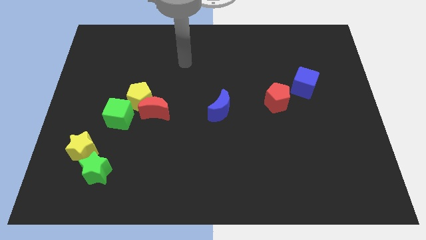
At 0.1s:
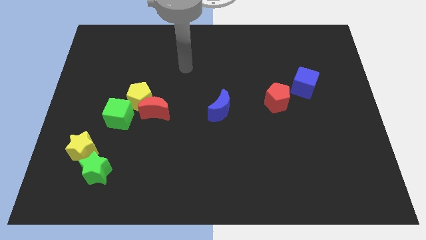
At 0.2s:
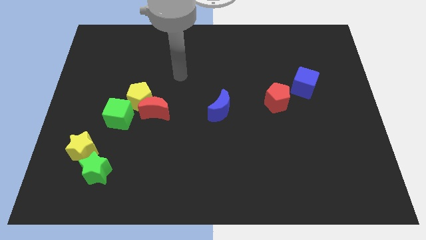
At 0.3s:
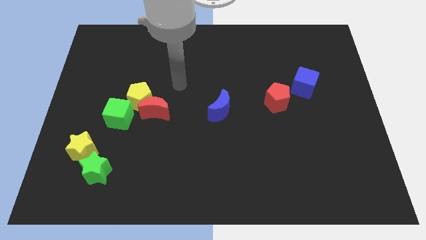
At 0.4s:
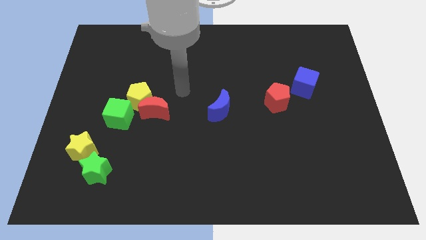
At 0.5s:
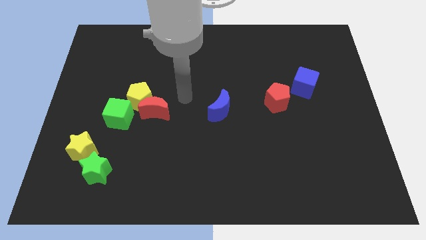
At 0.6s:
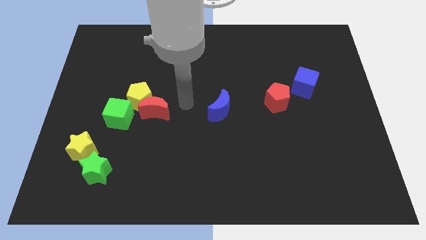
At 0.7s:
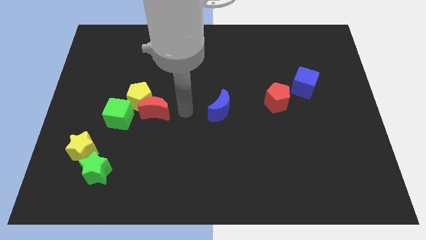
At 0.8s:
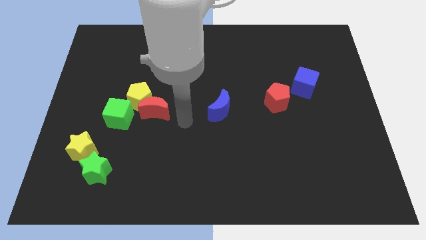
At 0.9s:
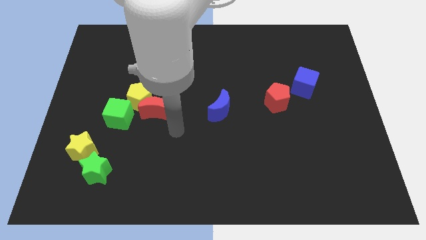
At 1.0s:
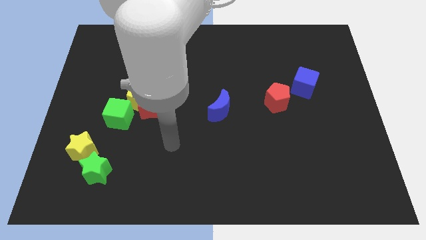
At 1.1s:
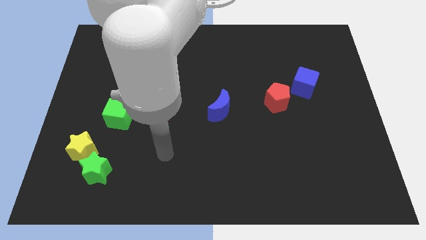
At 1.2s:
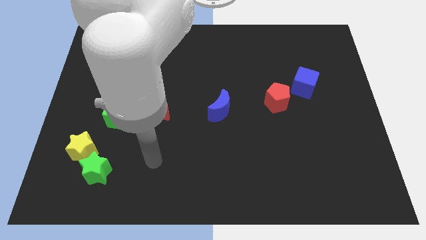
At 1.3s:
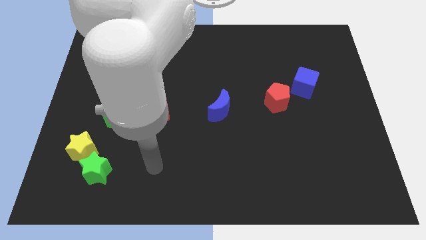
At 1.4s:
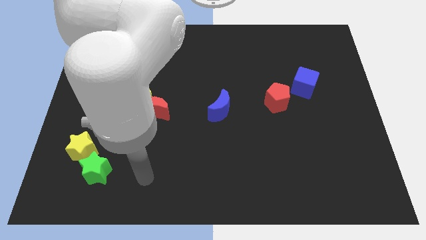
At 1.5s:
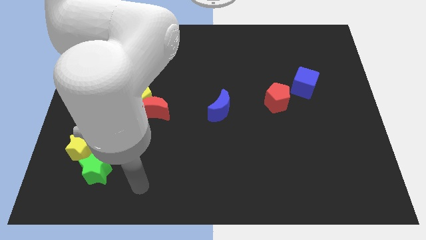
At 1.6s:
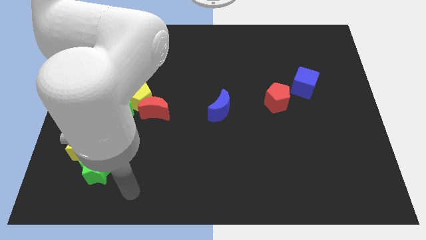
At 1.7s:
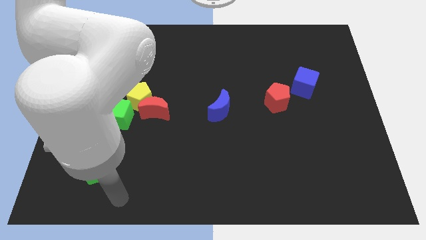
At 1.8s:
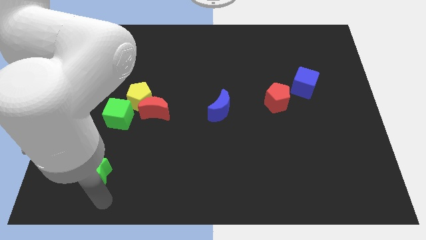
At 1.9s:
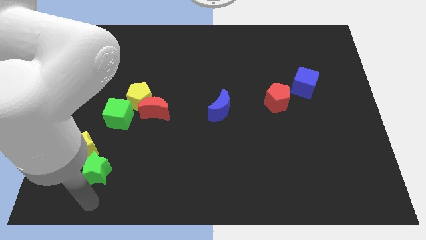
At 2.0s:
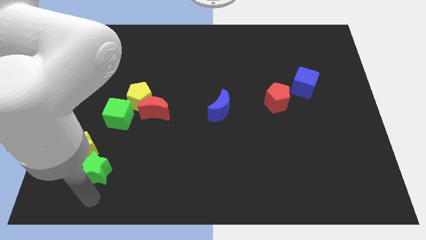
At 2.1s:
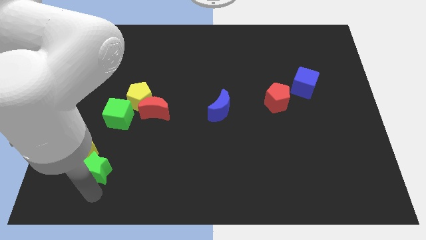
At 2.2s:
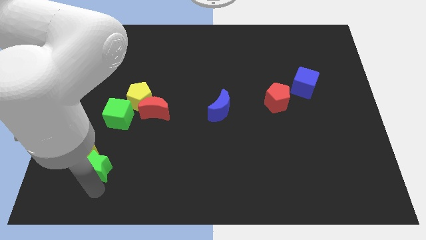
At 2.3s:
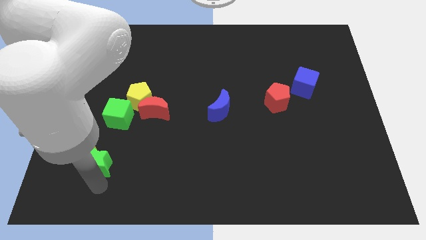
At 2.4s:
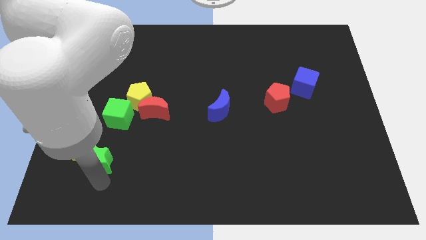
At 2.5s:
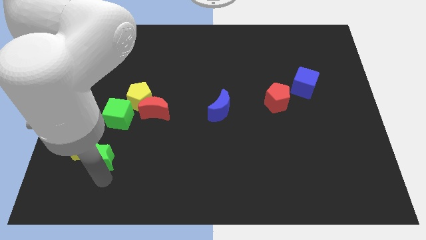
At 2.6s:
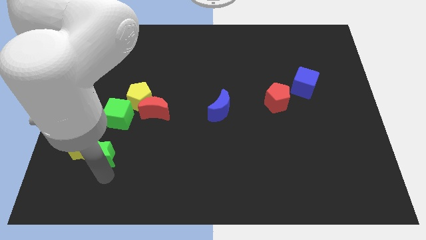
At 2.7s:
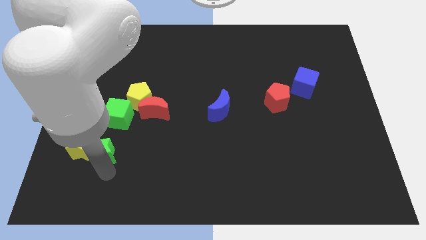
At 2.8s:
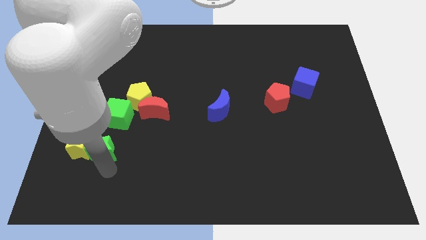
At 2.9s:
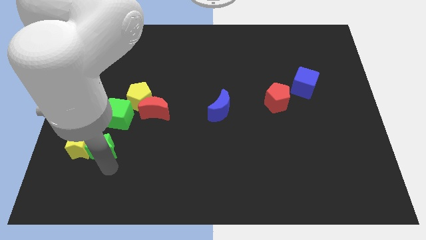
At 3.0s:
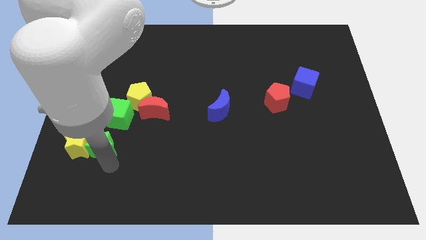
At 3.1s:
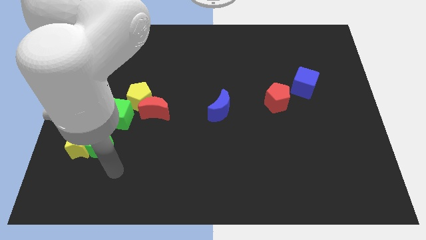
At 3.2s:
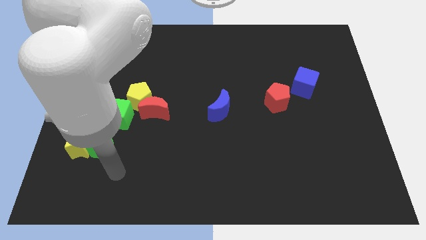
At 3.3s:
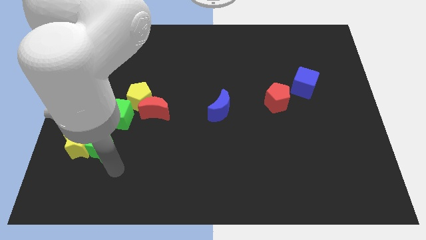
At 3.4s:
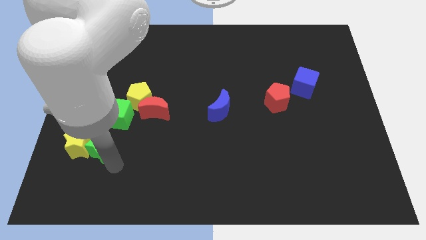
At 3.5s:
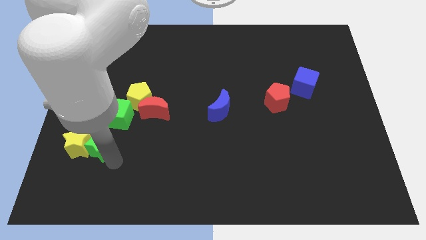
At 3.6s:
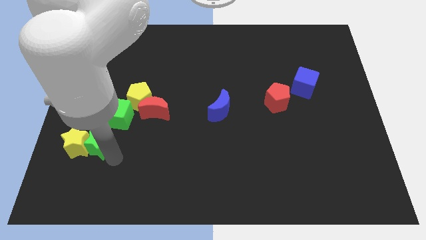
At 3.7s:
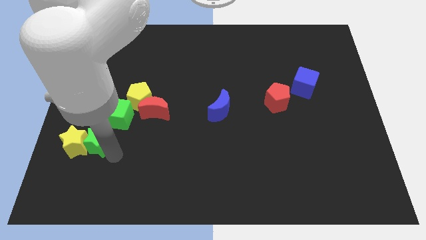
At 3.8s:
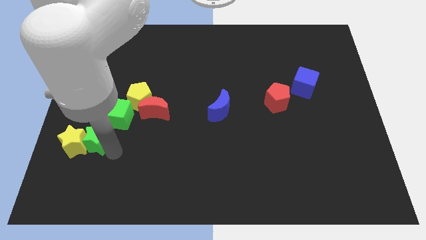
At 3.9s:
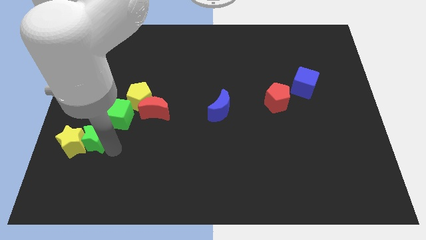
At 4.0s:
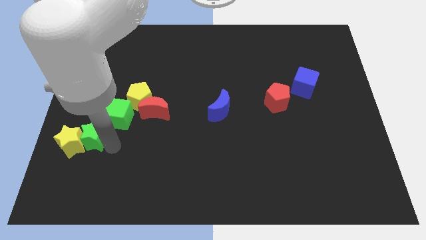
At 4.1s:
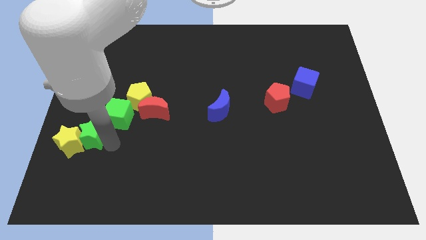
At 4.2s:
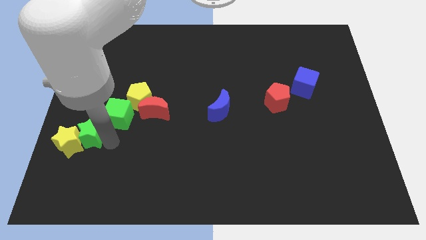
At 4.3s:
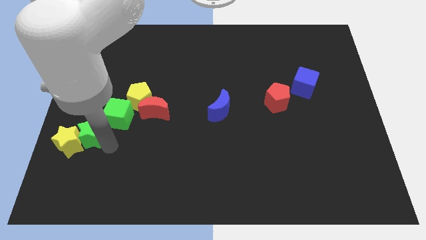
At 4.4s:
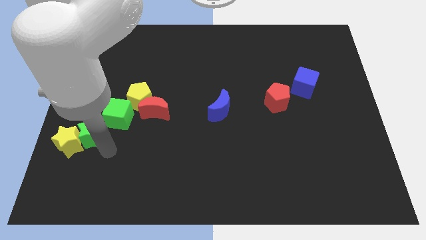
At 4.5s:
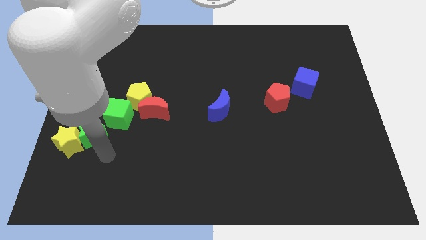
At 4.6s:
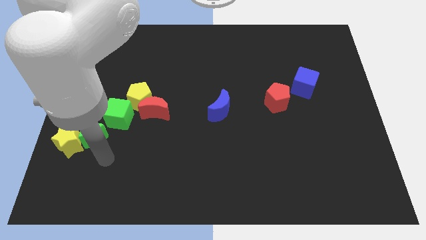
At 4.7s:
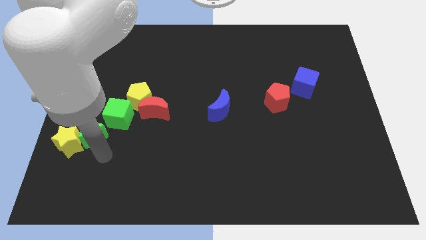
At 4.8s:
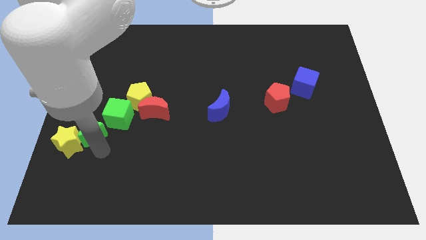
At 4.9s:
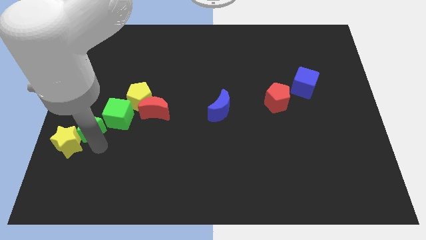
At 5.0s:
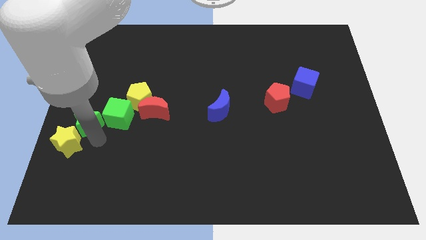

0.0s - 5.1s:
move the green star to the center left

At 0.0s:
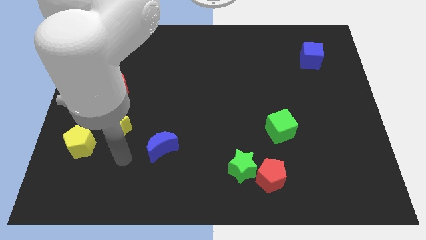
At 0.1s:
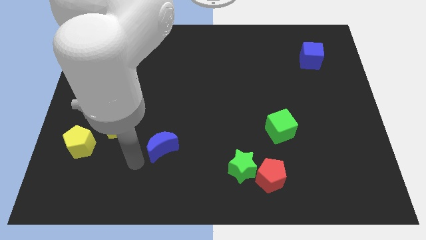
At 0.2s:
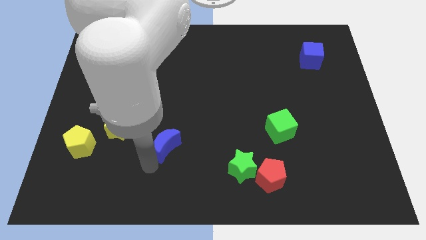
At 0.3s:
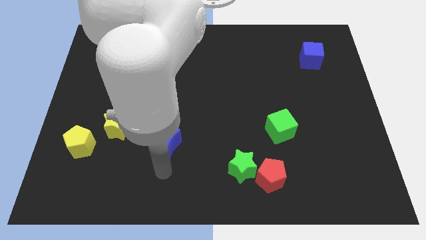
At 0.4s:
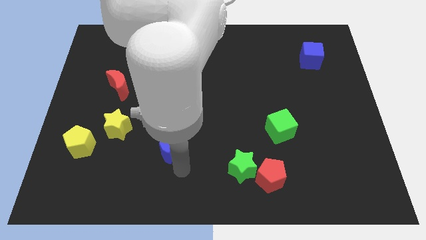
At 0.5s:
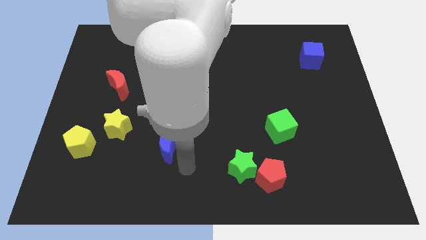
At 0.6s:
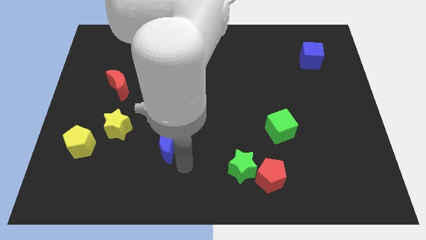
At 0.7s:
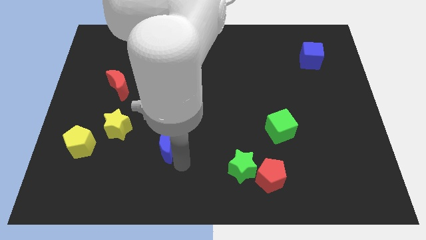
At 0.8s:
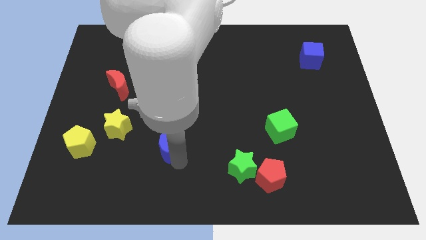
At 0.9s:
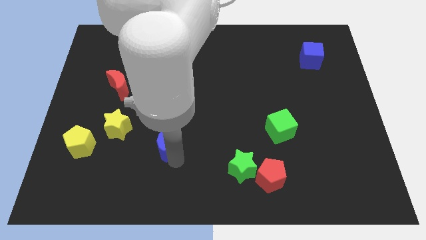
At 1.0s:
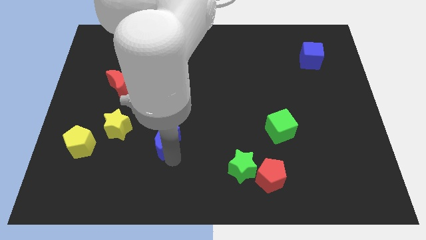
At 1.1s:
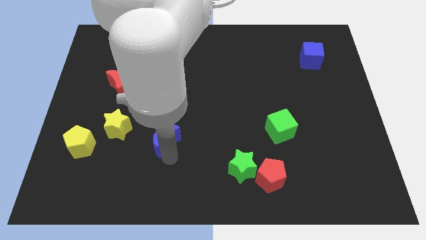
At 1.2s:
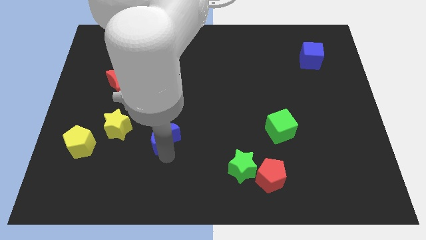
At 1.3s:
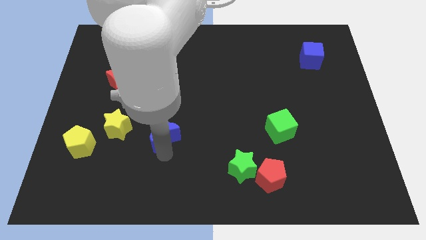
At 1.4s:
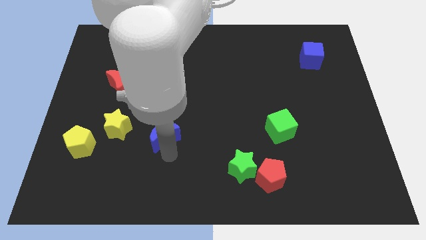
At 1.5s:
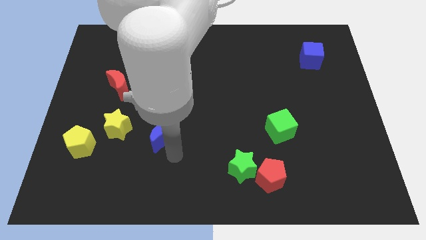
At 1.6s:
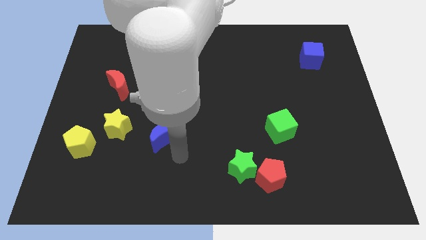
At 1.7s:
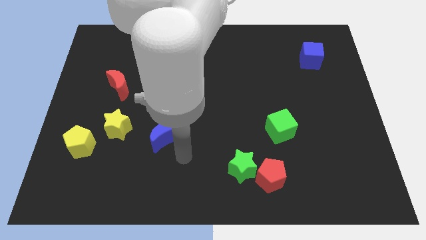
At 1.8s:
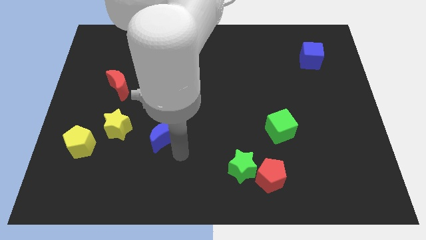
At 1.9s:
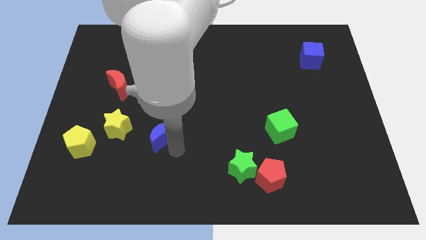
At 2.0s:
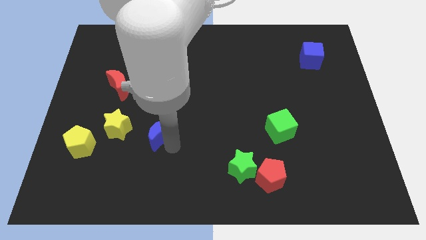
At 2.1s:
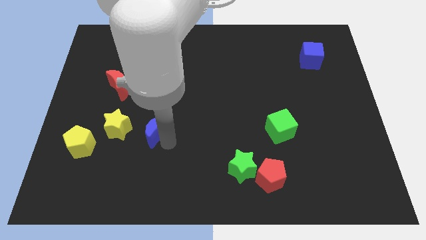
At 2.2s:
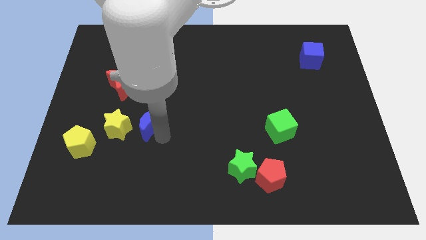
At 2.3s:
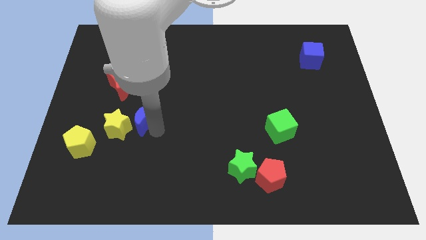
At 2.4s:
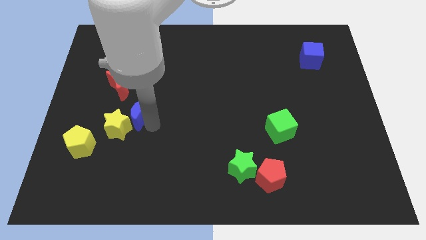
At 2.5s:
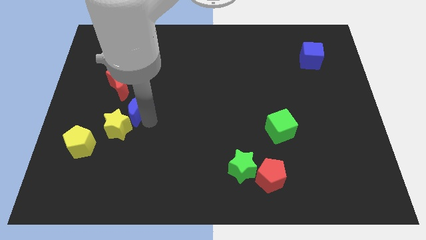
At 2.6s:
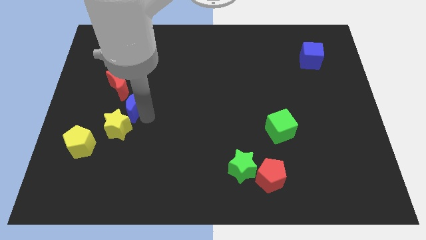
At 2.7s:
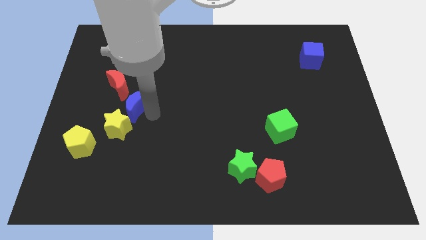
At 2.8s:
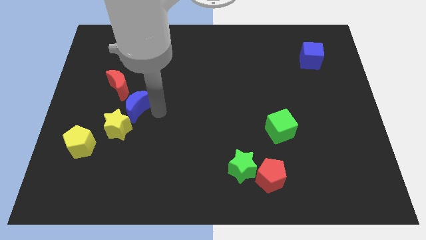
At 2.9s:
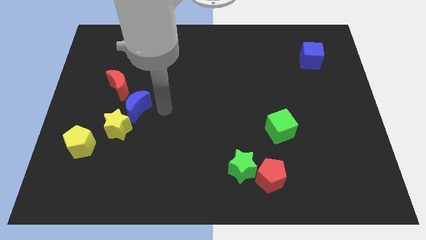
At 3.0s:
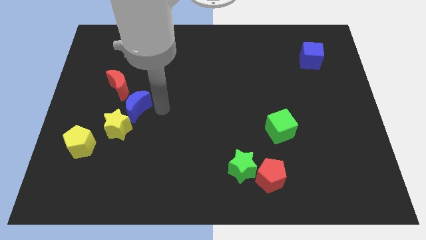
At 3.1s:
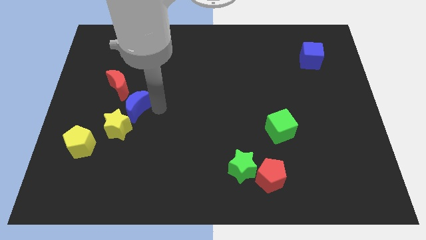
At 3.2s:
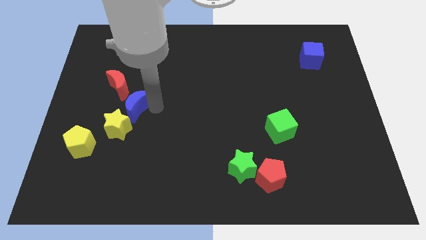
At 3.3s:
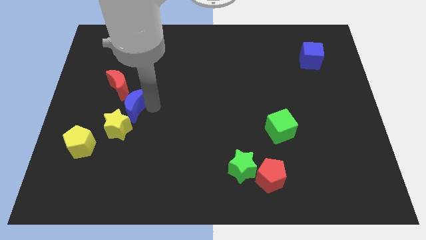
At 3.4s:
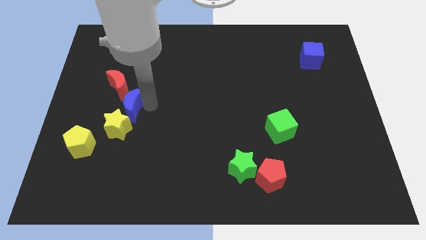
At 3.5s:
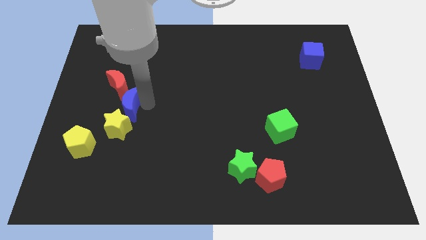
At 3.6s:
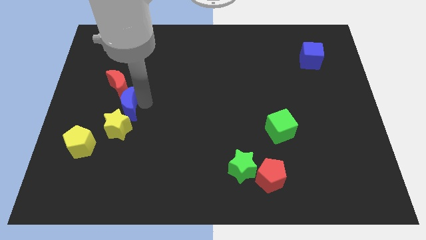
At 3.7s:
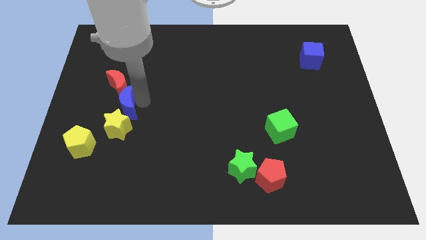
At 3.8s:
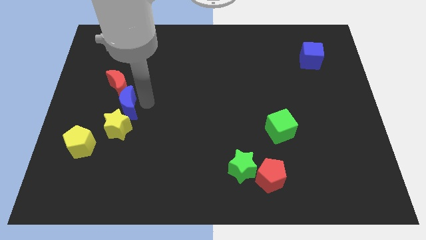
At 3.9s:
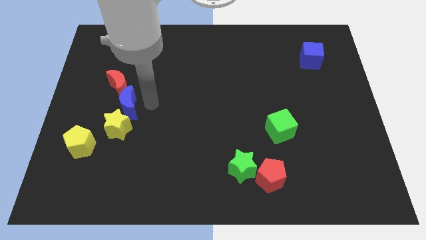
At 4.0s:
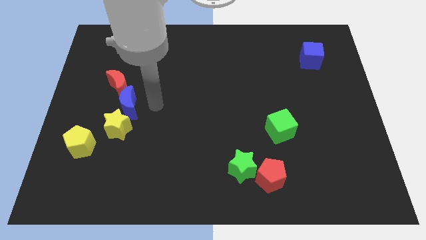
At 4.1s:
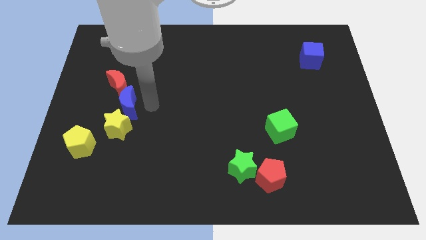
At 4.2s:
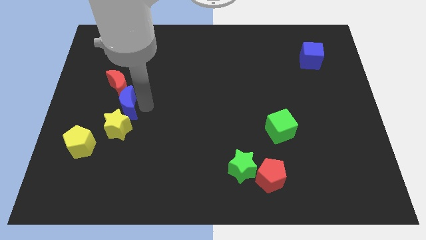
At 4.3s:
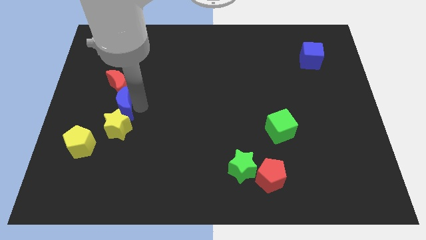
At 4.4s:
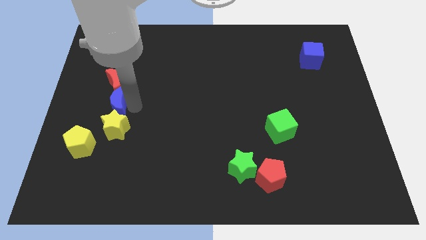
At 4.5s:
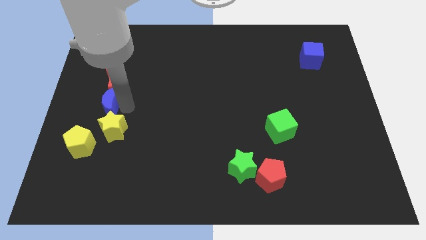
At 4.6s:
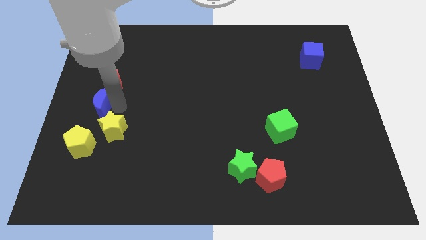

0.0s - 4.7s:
move the blue moon to the left side of the board
